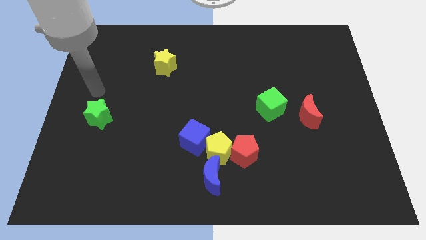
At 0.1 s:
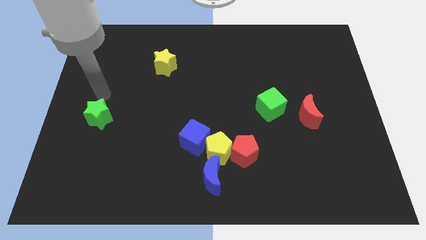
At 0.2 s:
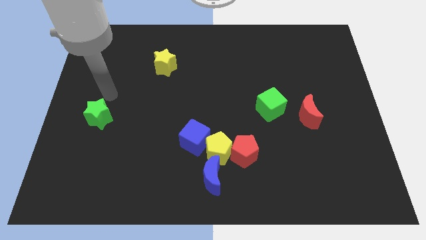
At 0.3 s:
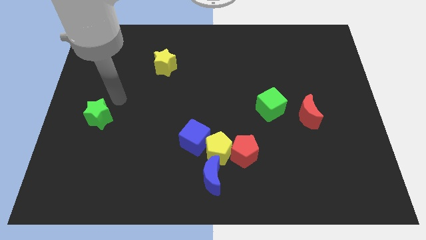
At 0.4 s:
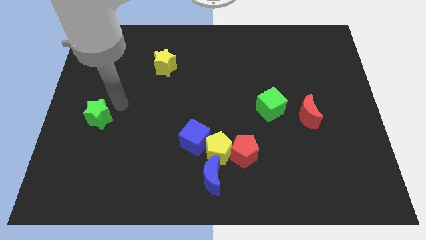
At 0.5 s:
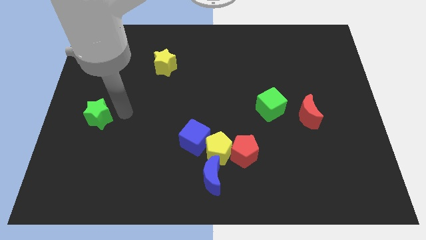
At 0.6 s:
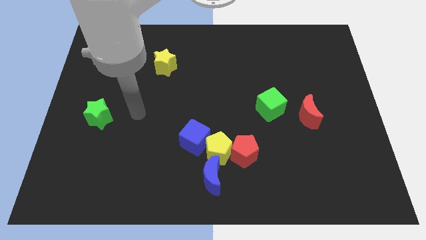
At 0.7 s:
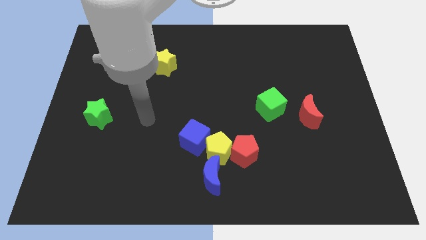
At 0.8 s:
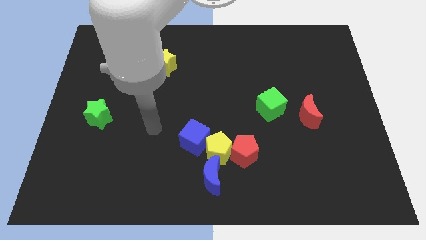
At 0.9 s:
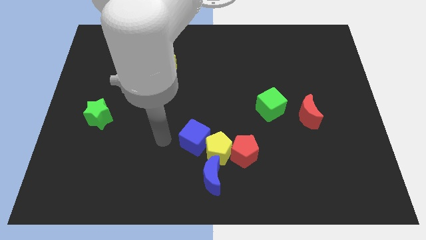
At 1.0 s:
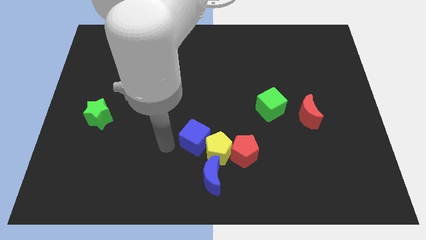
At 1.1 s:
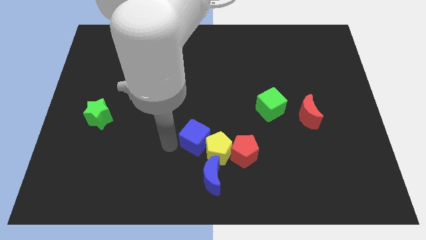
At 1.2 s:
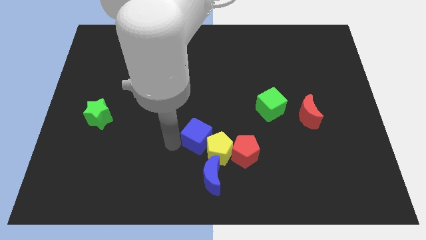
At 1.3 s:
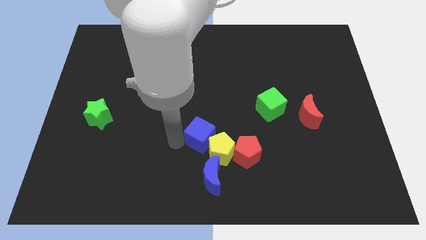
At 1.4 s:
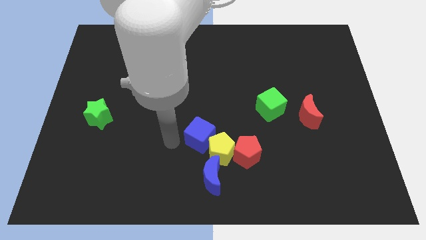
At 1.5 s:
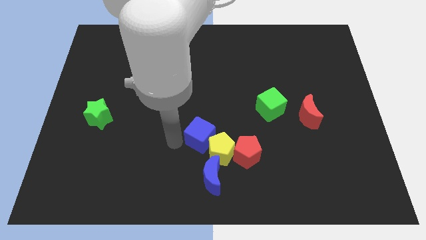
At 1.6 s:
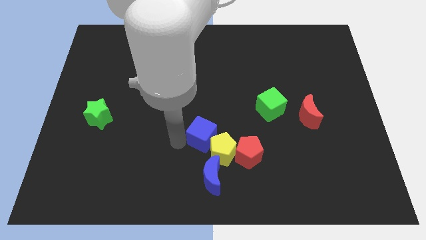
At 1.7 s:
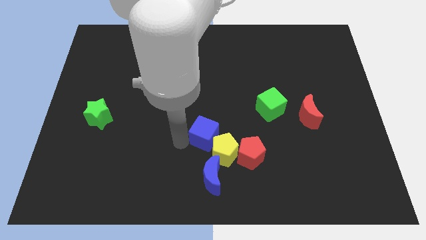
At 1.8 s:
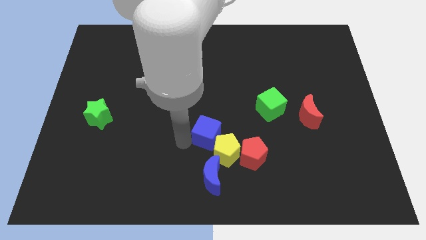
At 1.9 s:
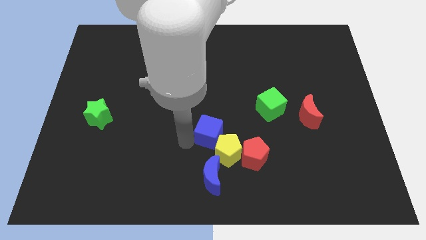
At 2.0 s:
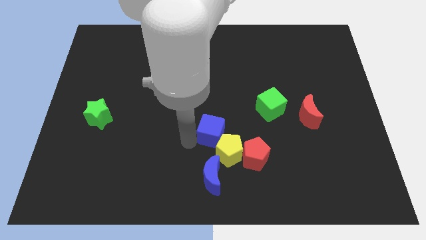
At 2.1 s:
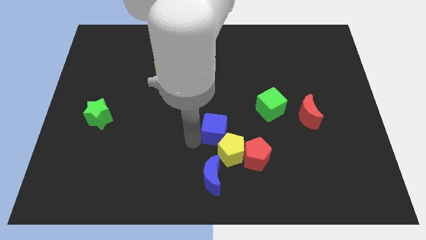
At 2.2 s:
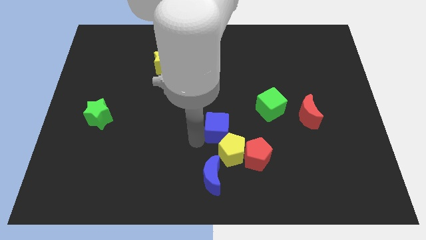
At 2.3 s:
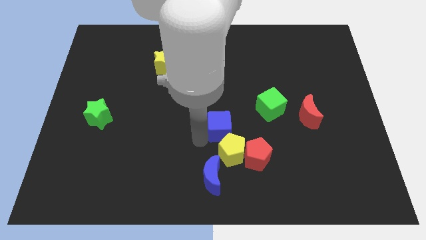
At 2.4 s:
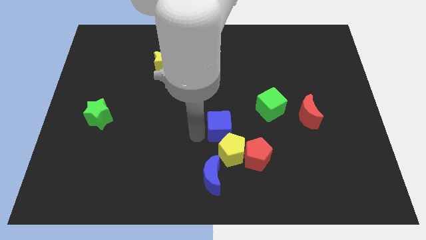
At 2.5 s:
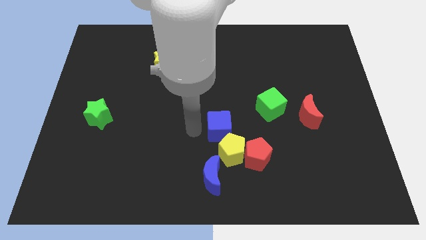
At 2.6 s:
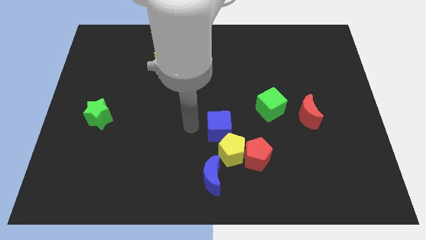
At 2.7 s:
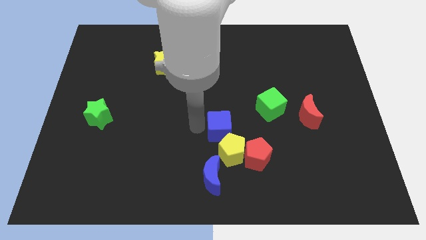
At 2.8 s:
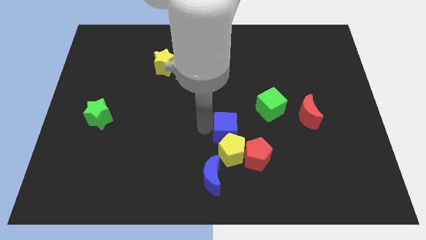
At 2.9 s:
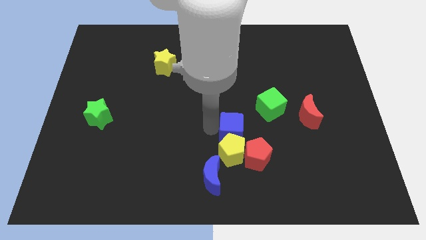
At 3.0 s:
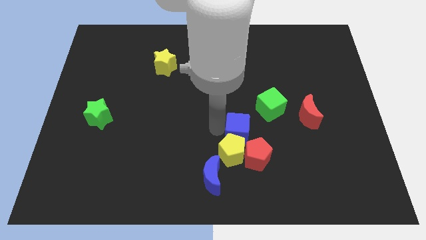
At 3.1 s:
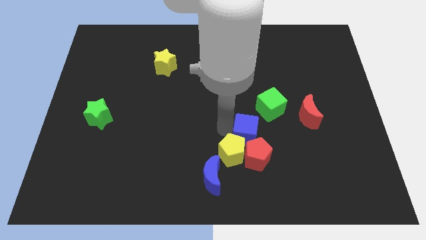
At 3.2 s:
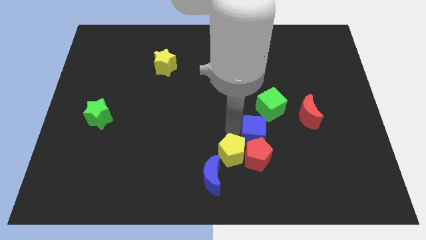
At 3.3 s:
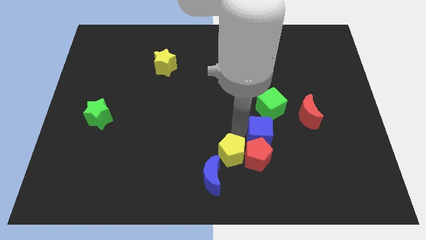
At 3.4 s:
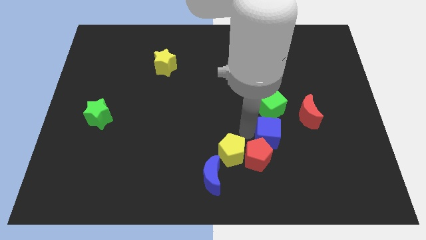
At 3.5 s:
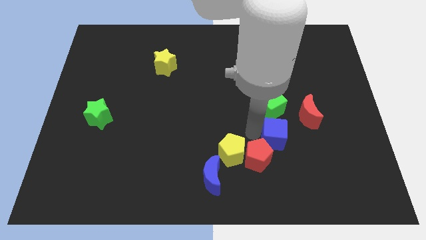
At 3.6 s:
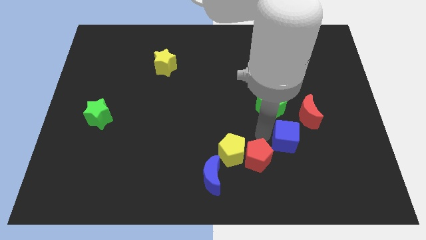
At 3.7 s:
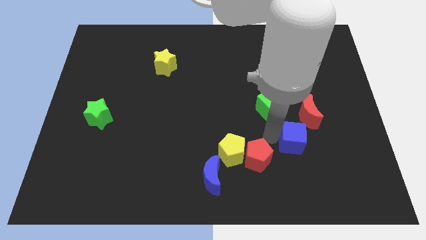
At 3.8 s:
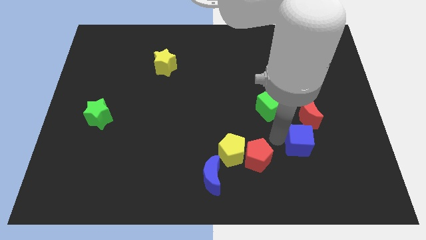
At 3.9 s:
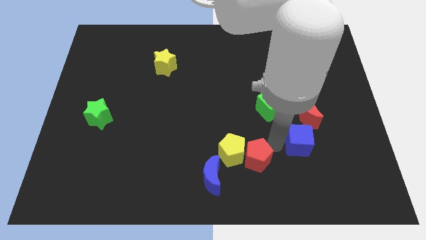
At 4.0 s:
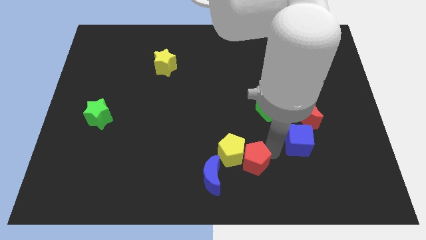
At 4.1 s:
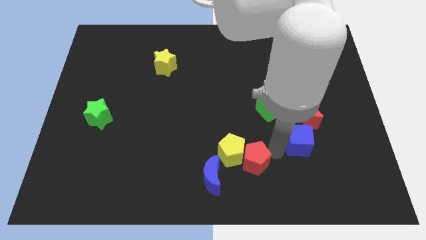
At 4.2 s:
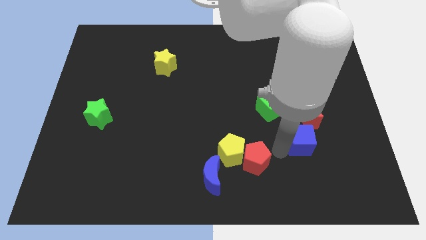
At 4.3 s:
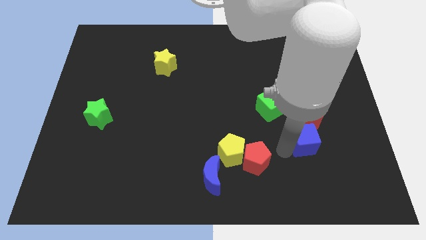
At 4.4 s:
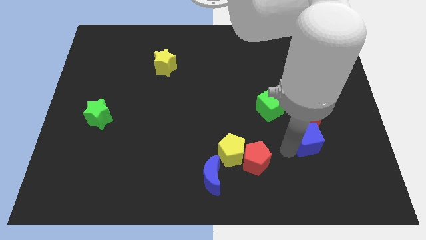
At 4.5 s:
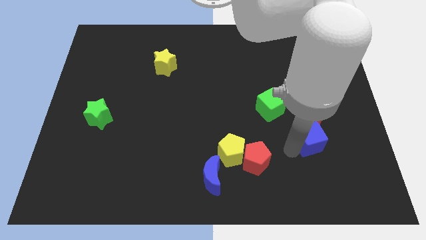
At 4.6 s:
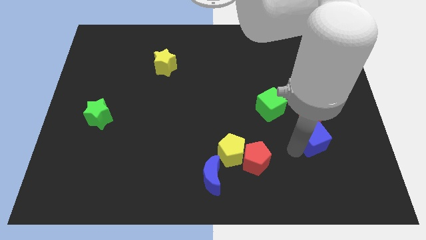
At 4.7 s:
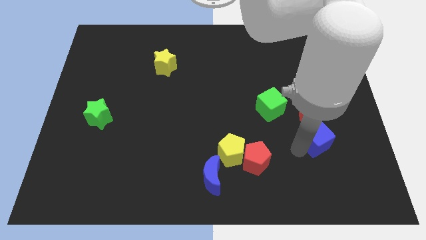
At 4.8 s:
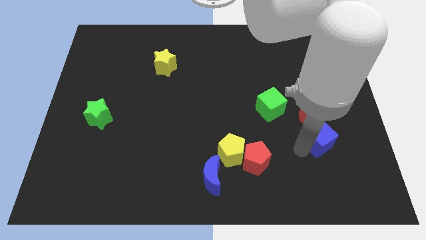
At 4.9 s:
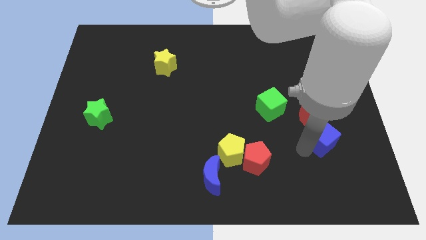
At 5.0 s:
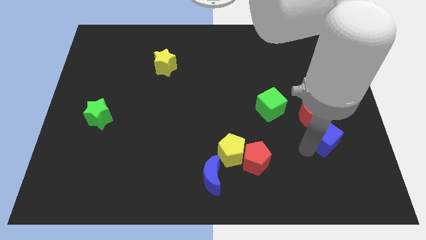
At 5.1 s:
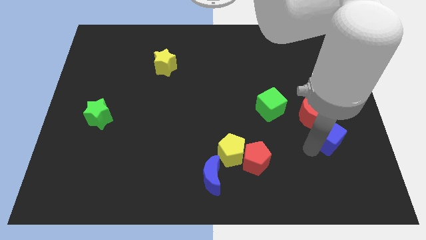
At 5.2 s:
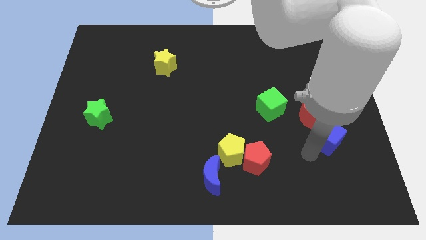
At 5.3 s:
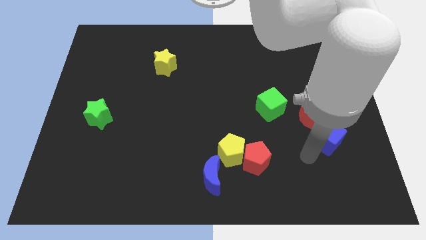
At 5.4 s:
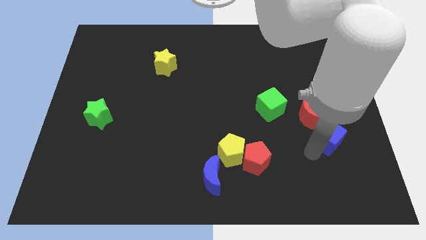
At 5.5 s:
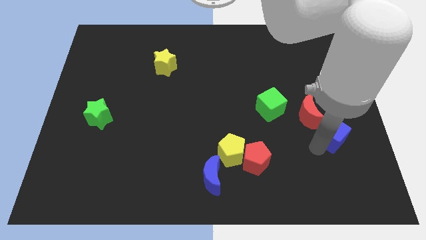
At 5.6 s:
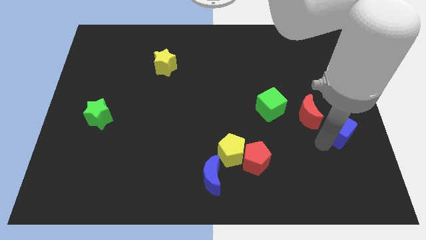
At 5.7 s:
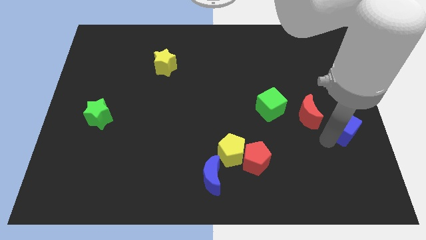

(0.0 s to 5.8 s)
move the blue cube to the center right

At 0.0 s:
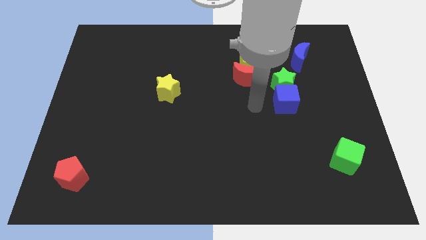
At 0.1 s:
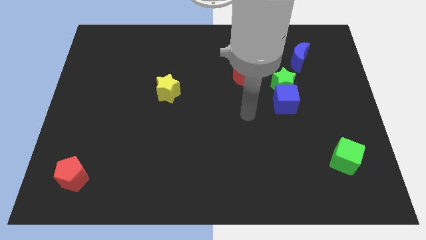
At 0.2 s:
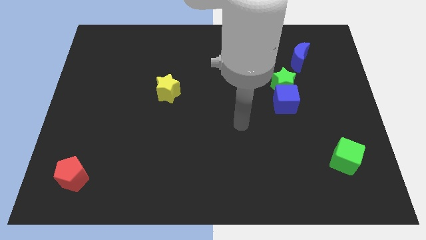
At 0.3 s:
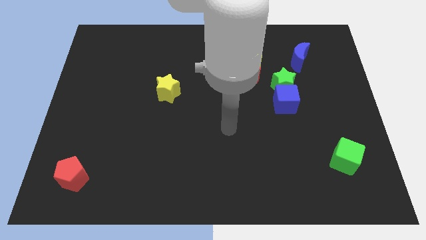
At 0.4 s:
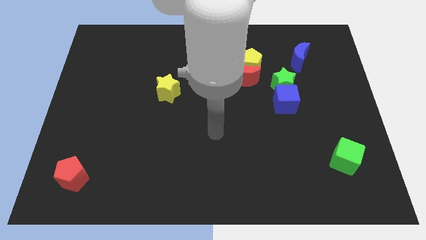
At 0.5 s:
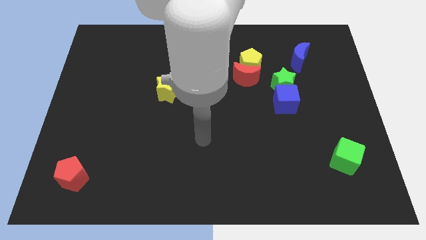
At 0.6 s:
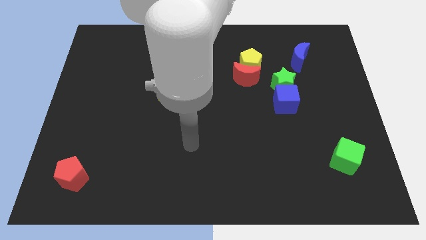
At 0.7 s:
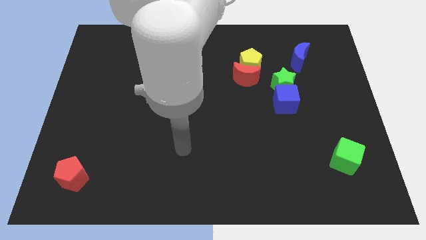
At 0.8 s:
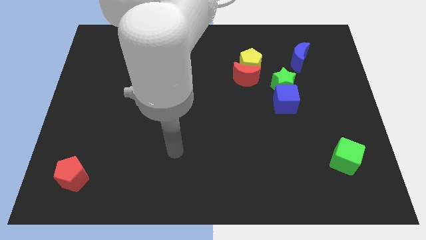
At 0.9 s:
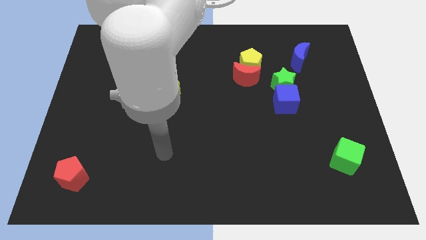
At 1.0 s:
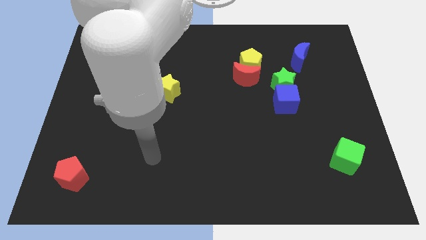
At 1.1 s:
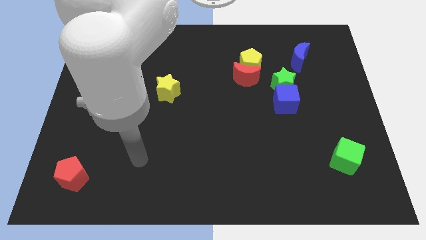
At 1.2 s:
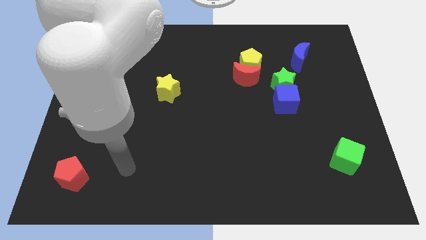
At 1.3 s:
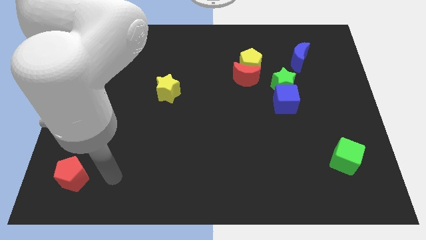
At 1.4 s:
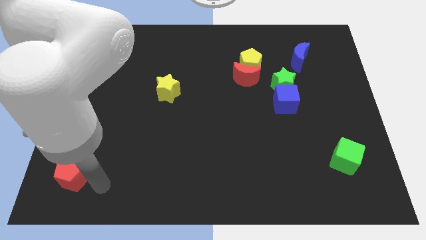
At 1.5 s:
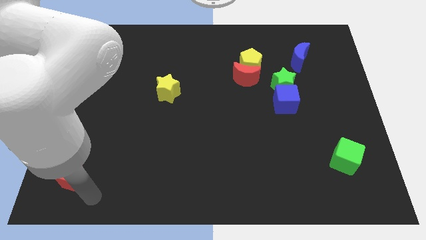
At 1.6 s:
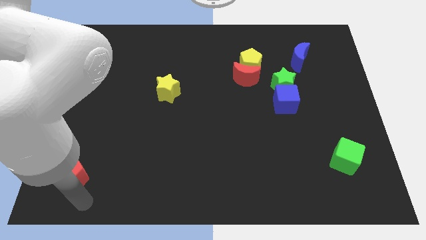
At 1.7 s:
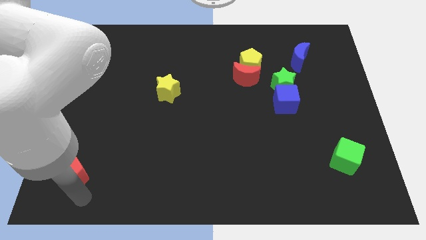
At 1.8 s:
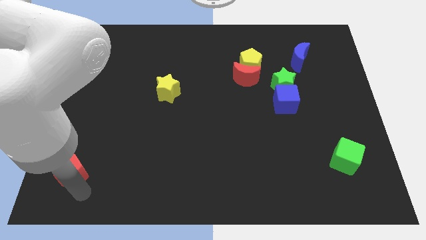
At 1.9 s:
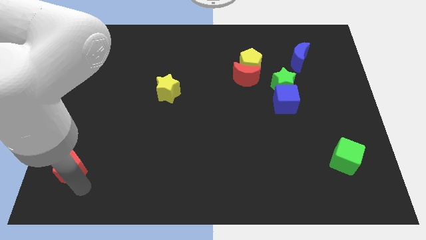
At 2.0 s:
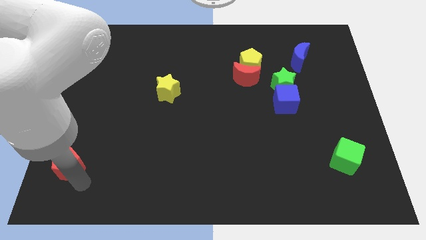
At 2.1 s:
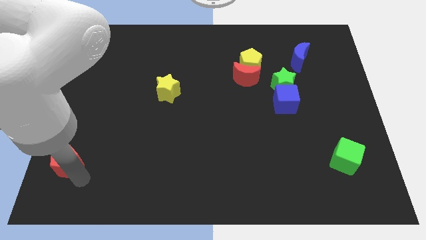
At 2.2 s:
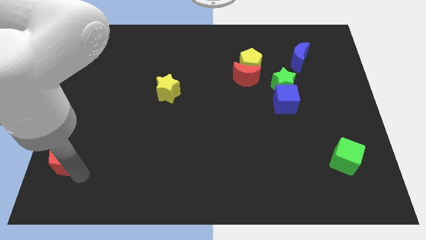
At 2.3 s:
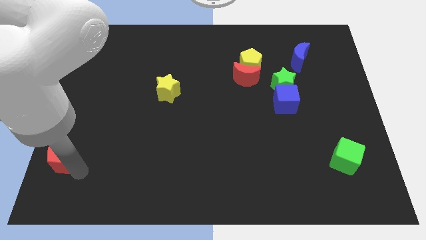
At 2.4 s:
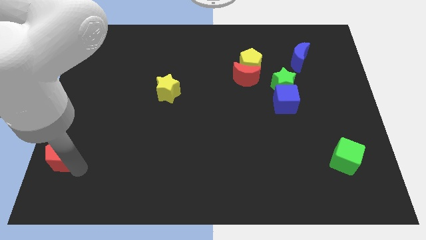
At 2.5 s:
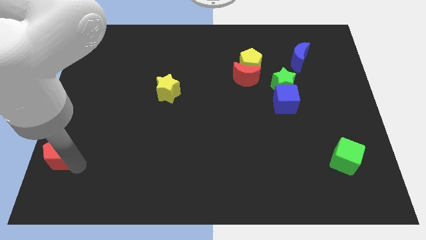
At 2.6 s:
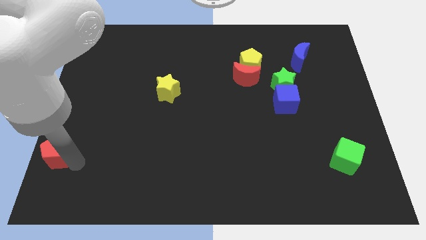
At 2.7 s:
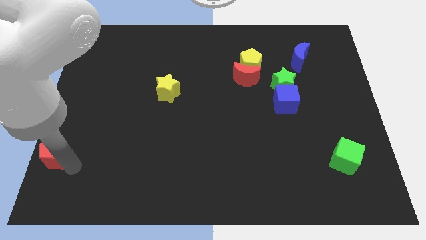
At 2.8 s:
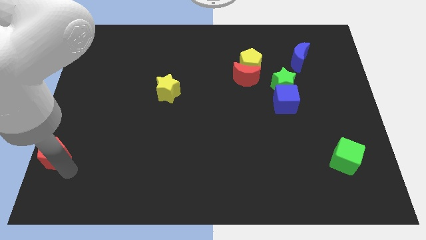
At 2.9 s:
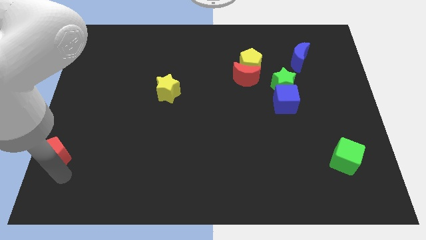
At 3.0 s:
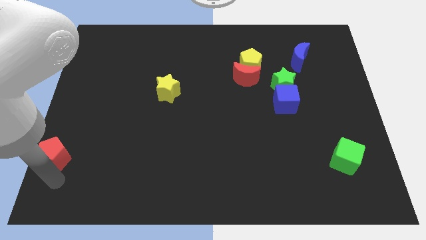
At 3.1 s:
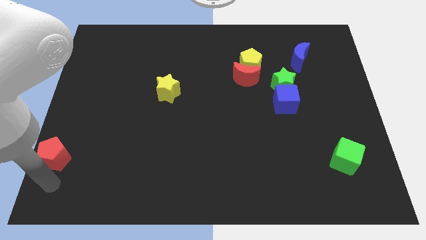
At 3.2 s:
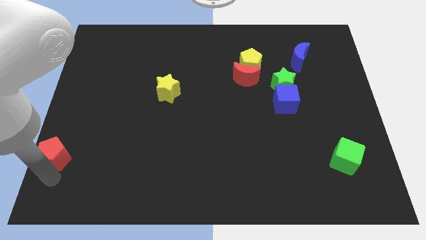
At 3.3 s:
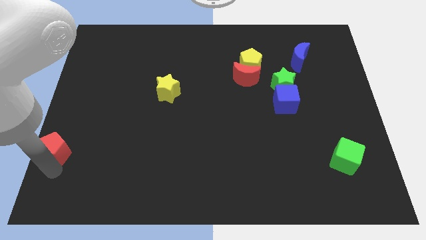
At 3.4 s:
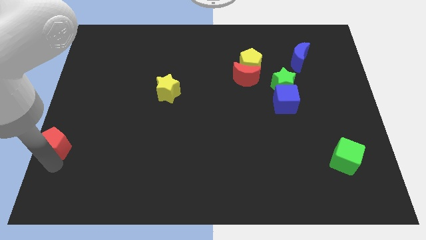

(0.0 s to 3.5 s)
put the red pentagon to the left side
